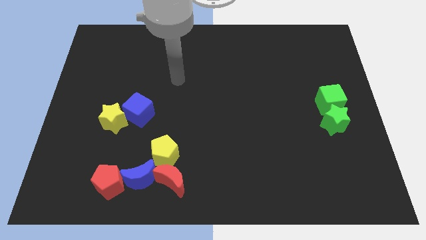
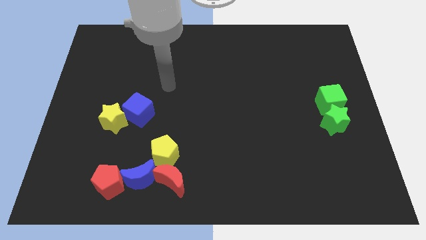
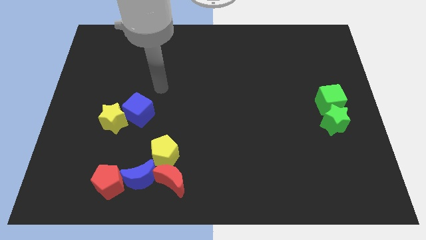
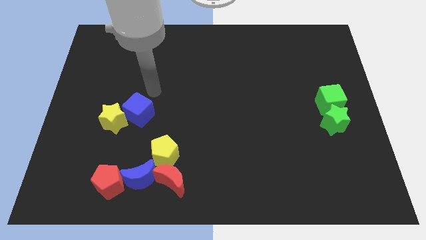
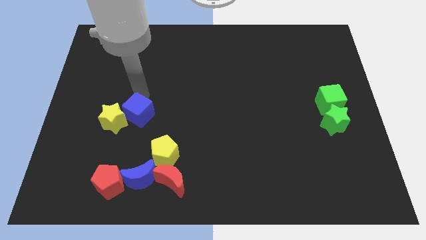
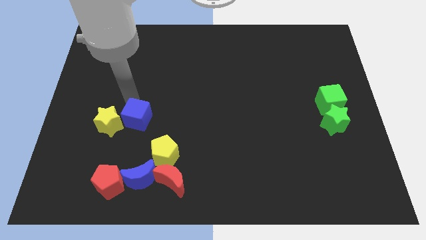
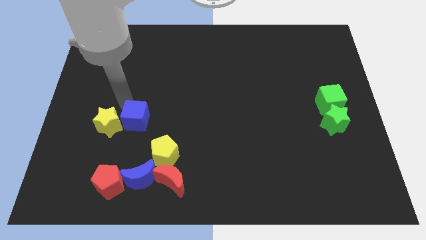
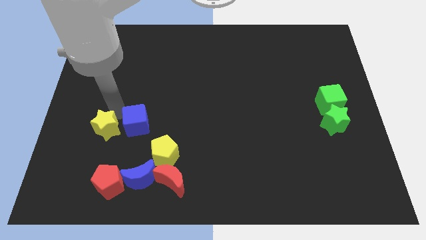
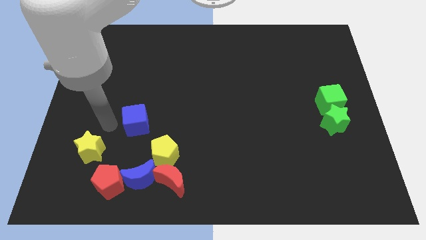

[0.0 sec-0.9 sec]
separate the blue cube from the yellow star

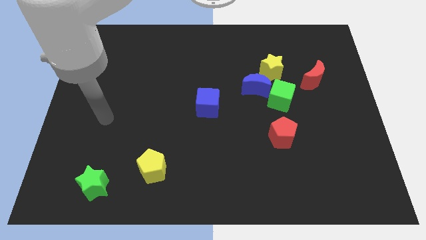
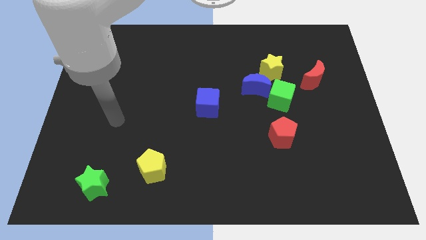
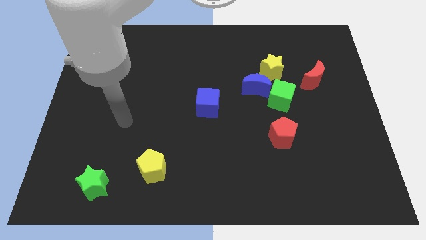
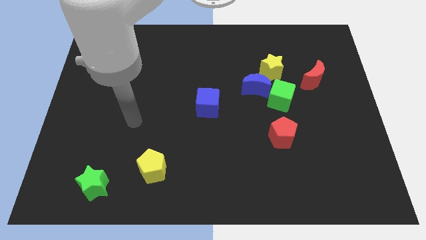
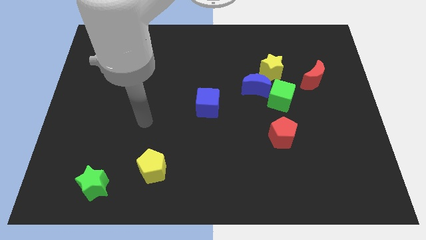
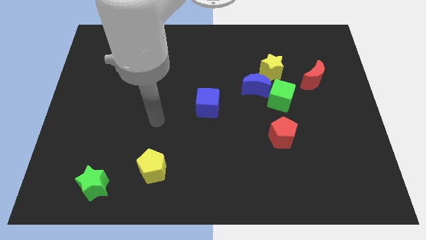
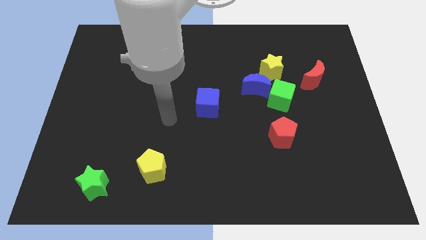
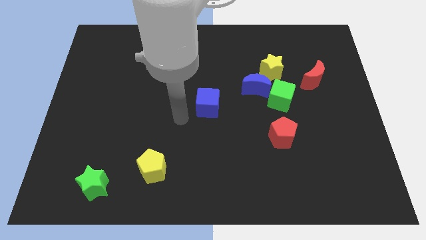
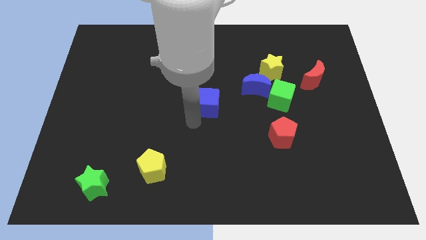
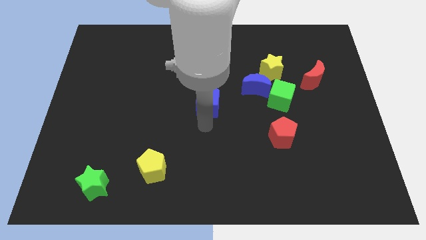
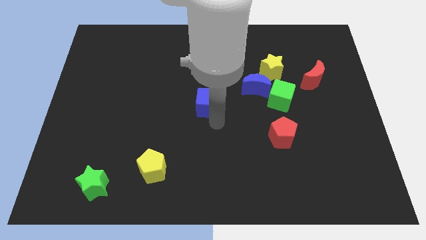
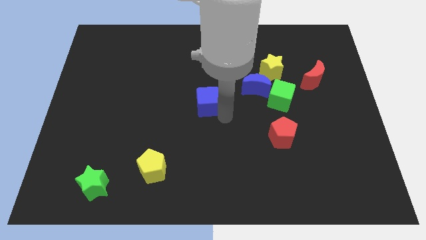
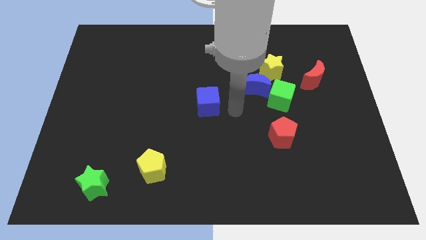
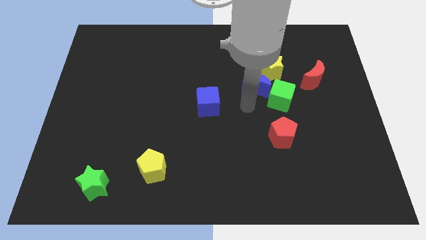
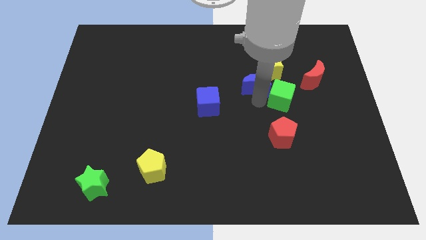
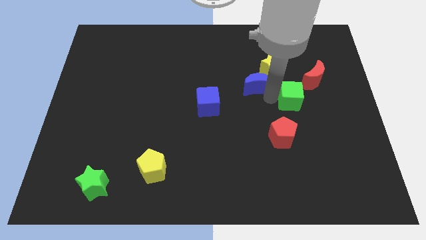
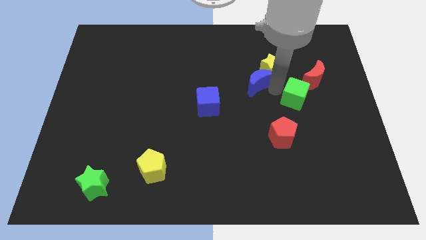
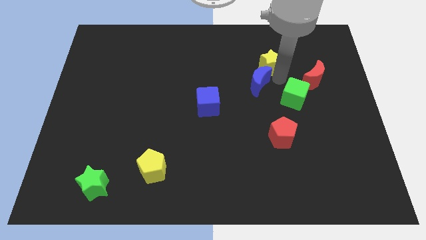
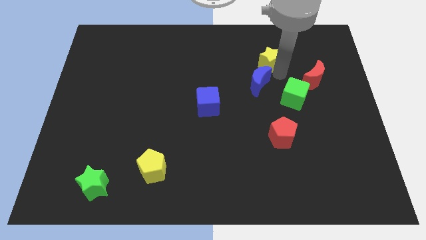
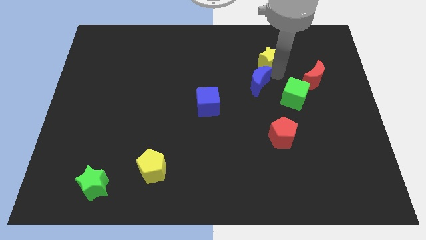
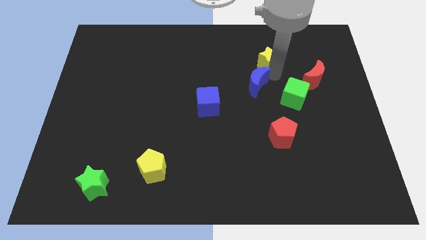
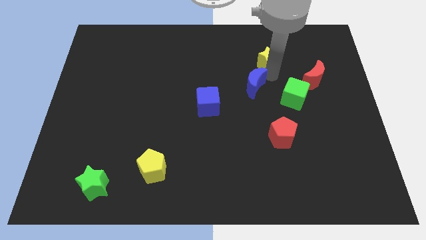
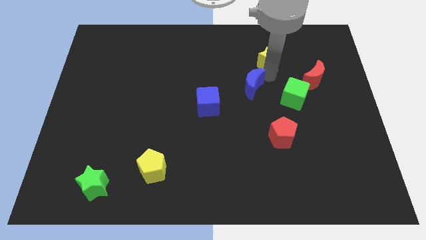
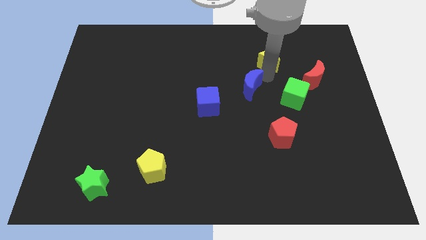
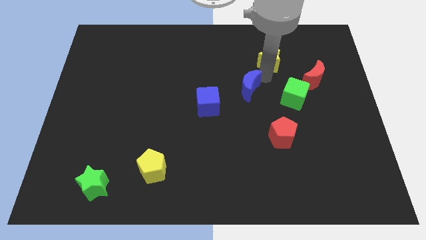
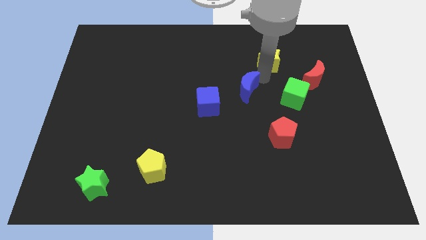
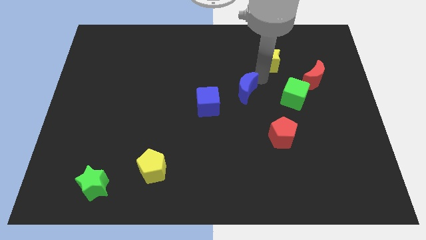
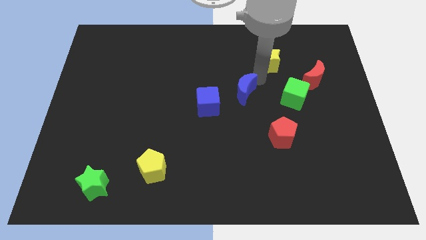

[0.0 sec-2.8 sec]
pull the blue moon apart from the green cube and yellow star

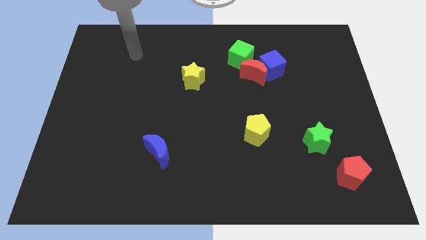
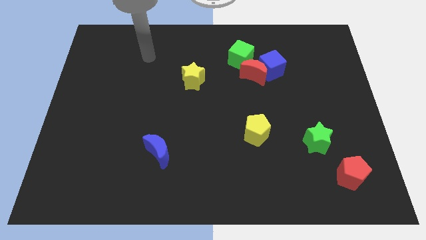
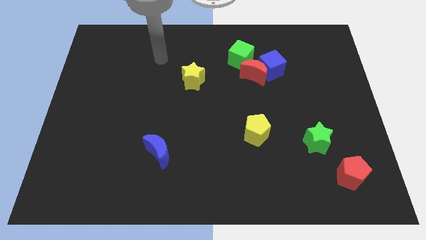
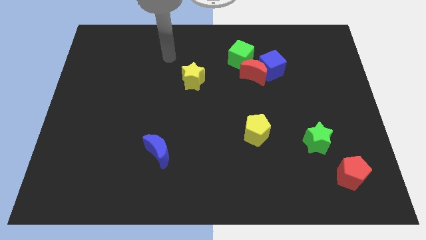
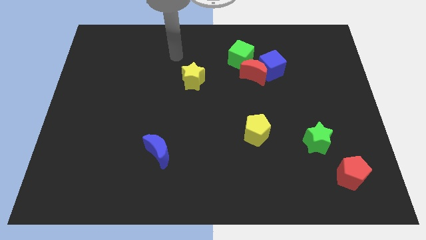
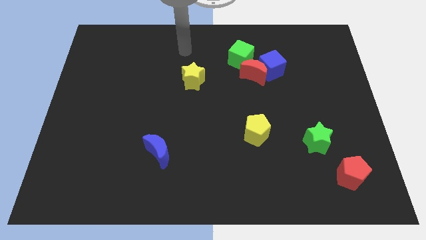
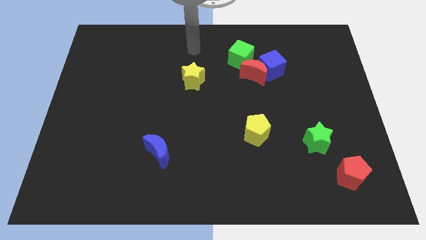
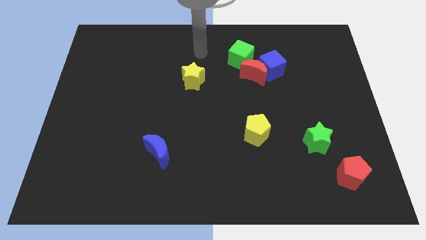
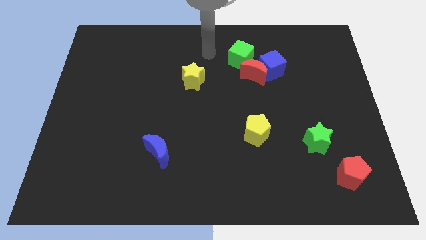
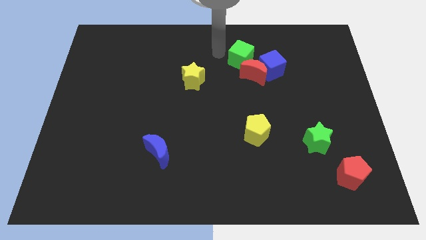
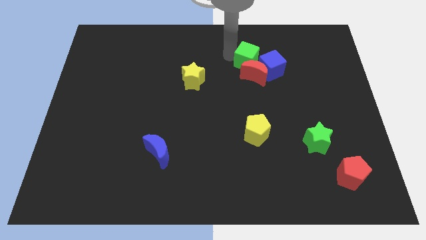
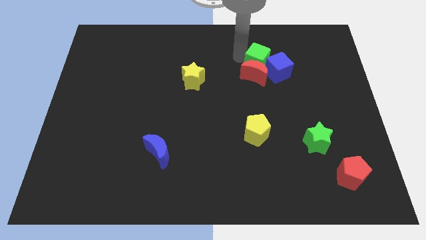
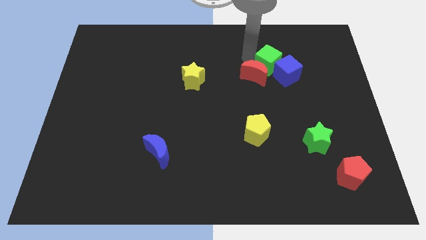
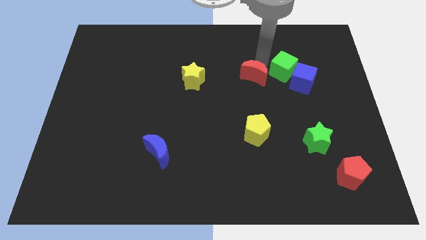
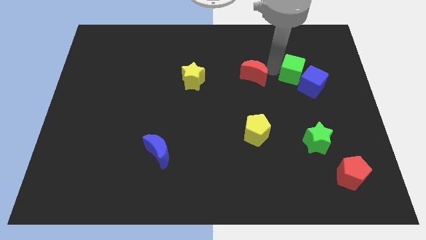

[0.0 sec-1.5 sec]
separate the red moon from the blue cube and green cube

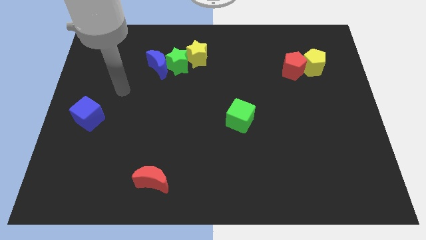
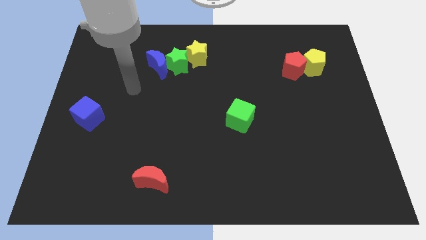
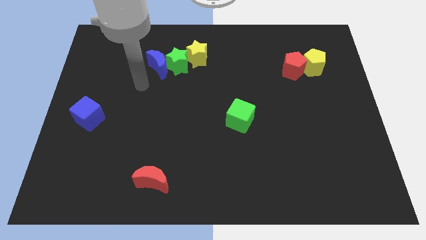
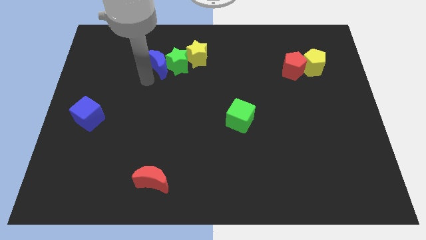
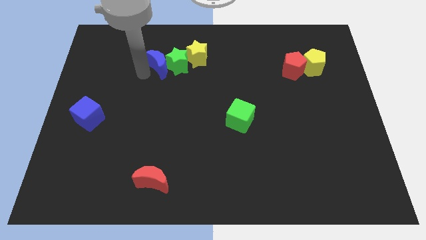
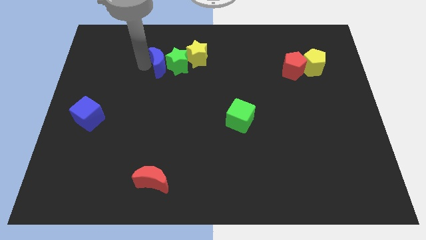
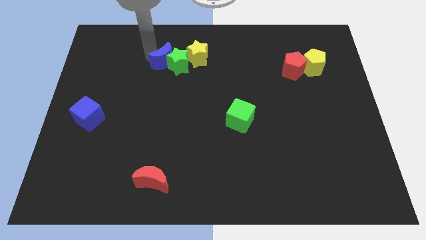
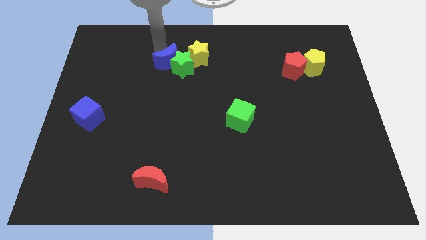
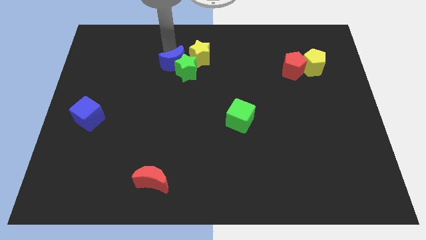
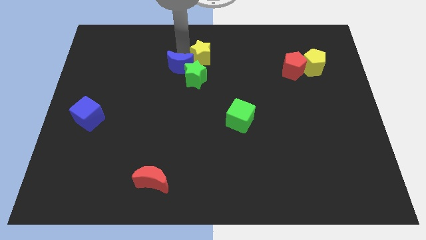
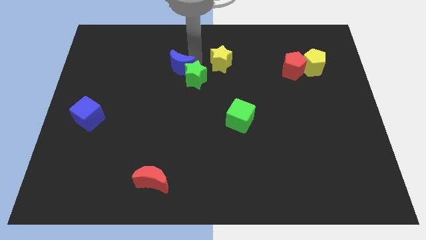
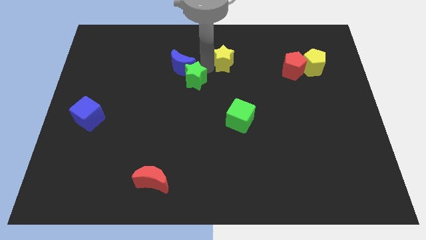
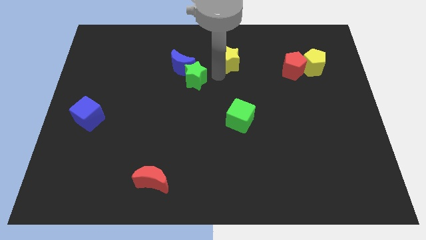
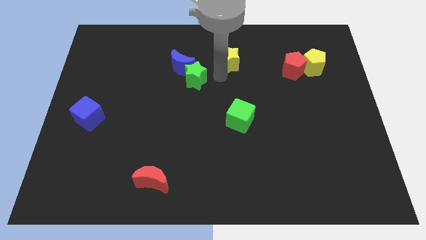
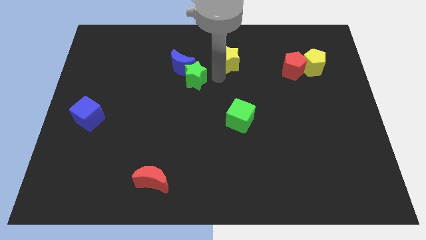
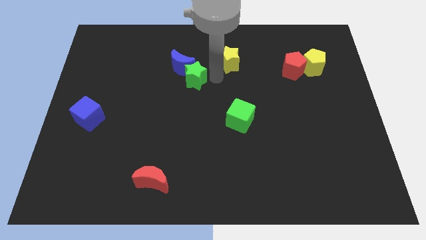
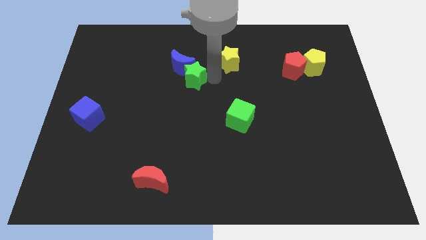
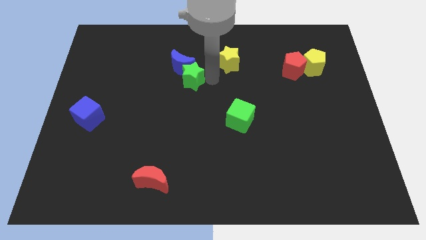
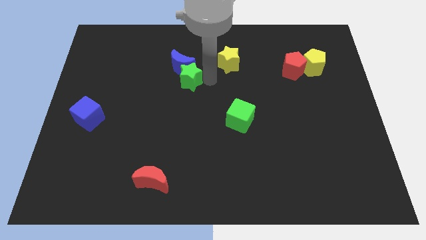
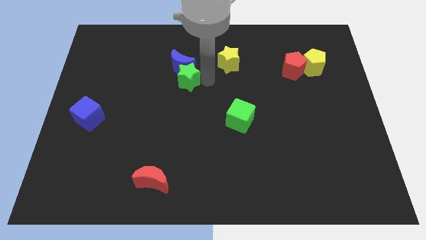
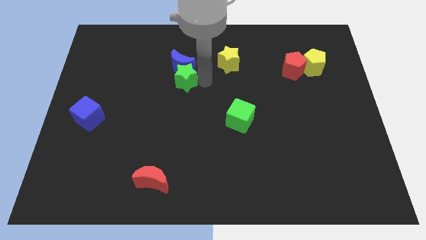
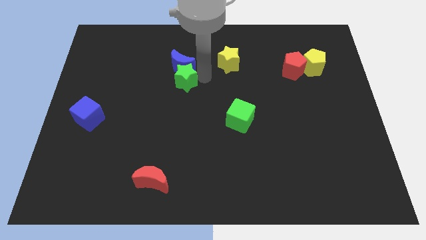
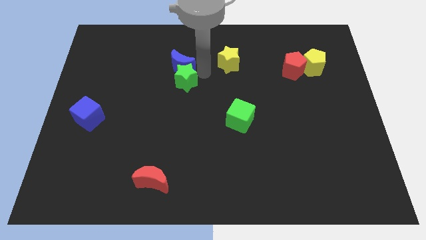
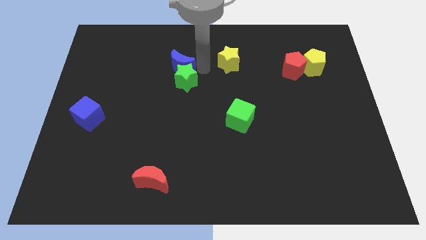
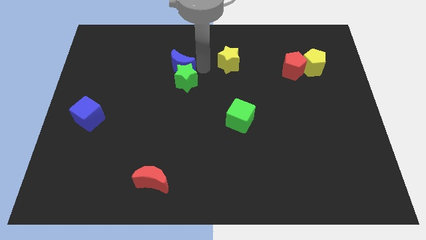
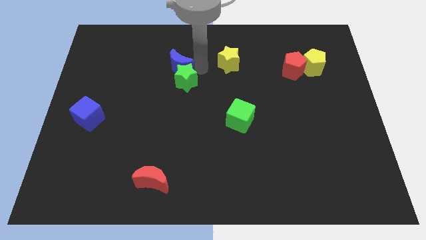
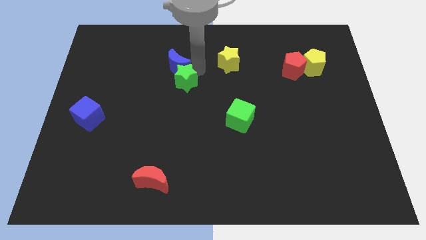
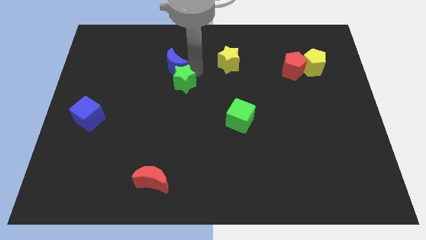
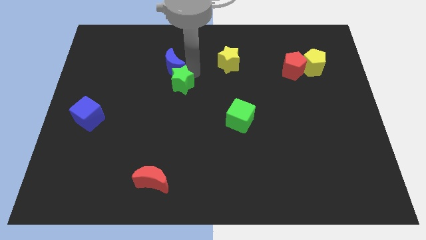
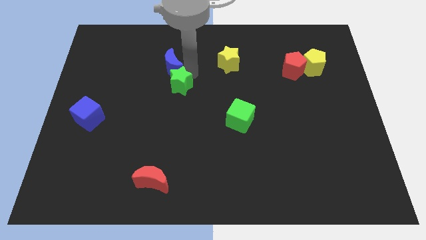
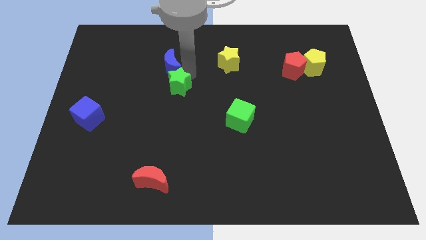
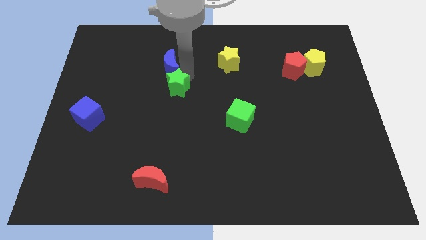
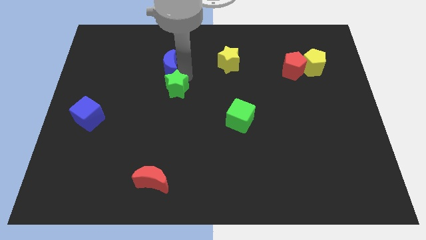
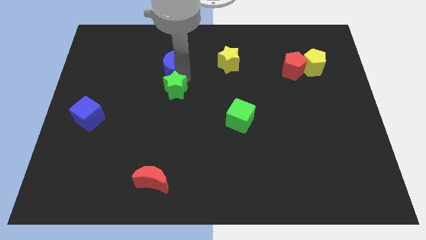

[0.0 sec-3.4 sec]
separate the green star from the blue moon and yellow star

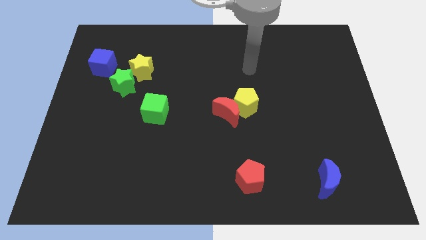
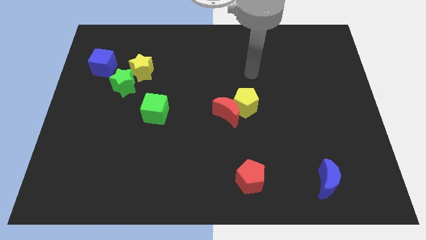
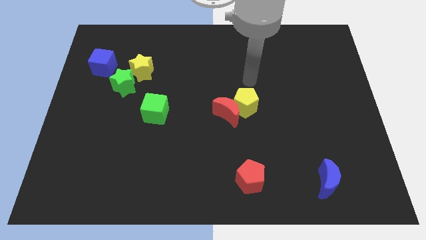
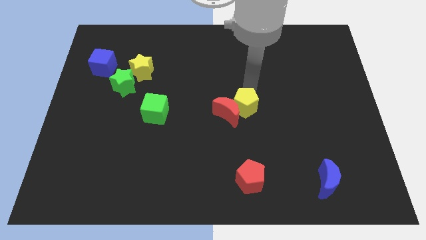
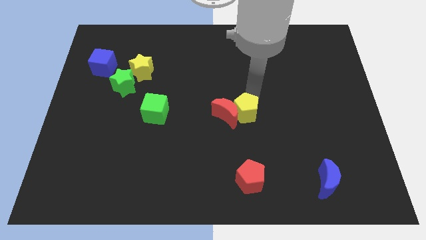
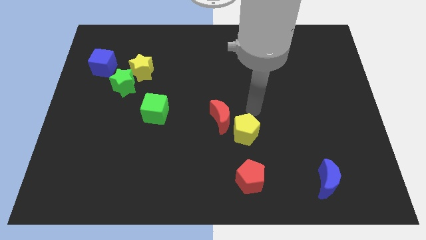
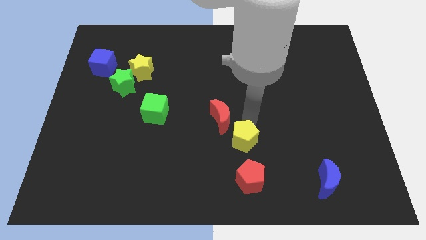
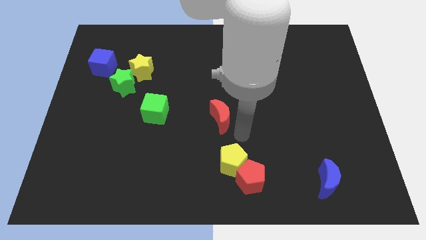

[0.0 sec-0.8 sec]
move the red moon away from the yellow pentagon
